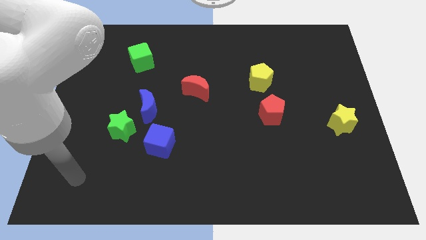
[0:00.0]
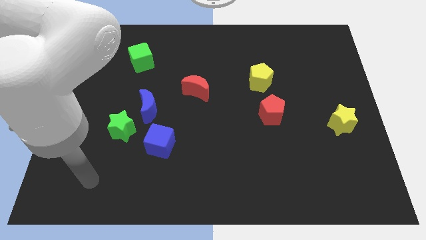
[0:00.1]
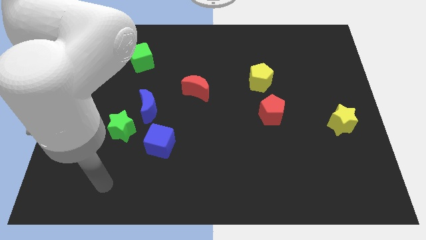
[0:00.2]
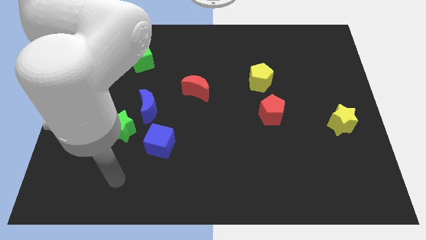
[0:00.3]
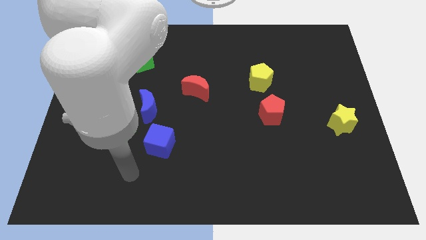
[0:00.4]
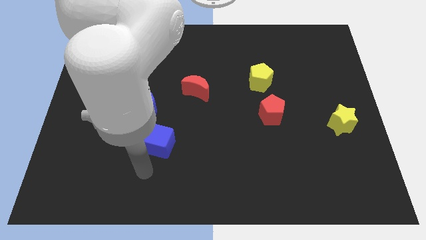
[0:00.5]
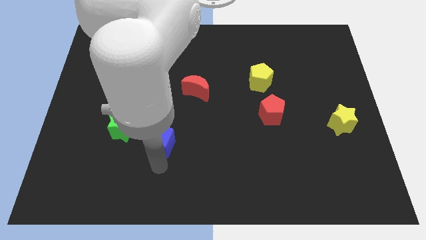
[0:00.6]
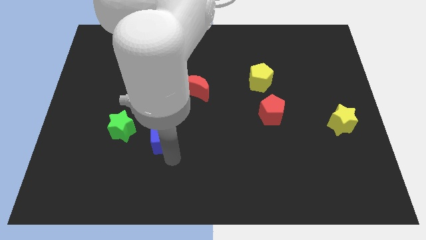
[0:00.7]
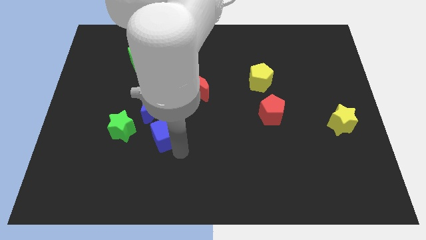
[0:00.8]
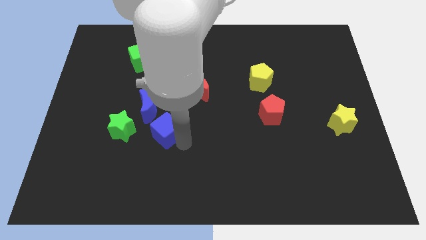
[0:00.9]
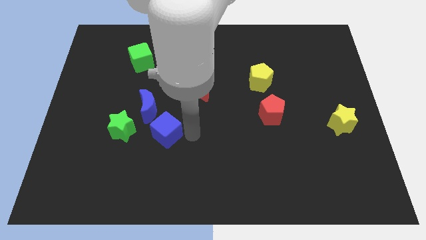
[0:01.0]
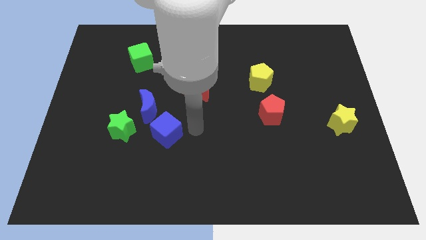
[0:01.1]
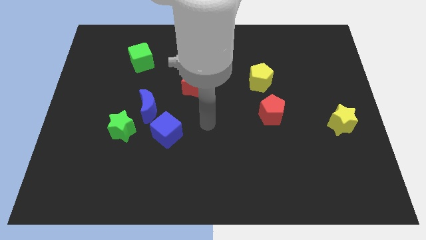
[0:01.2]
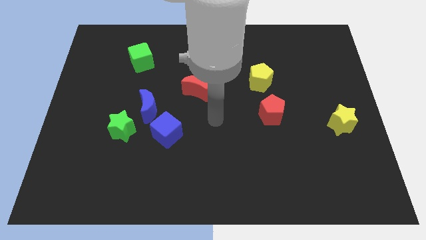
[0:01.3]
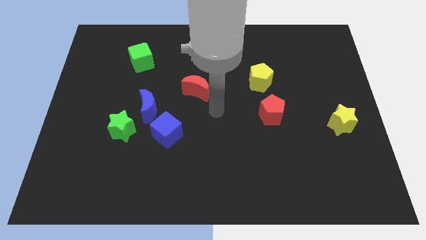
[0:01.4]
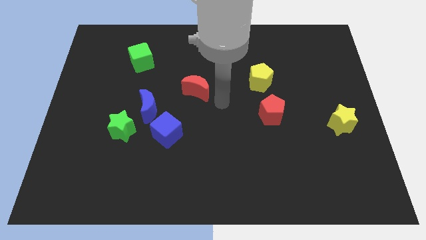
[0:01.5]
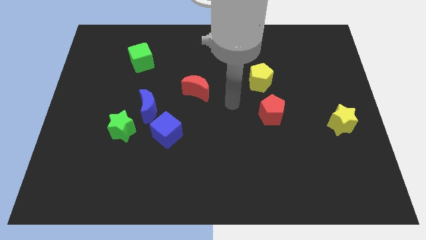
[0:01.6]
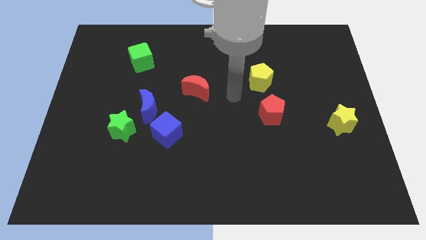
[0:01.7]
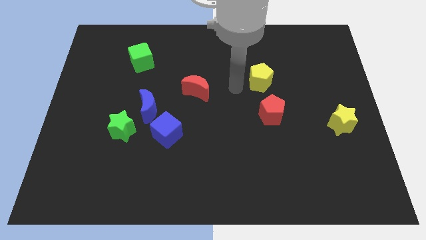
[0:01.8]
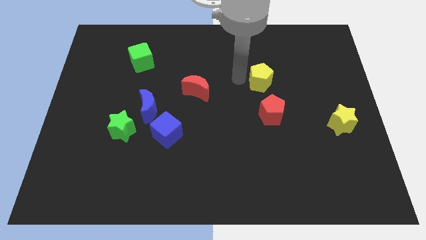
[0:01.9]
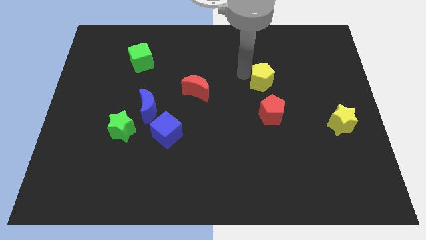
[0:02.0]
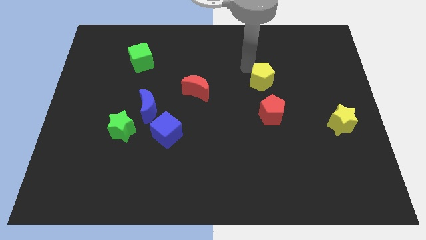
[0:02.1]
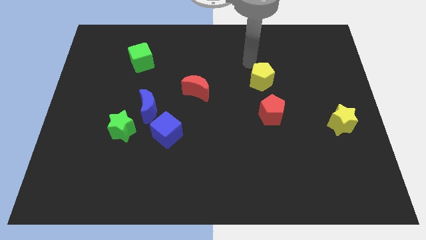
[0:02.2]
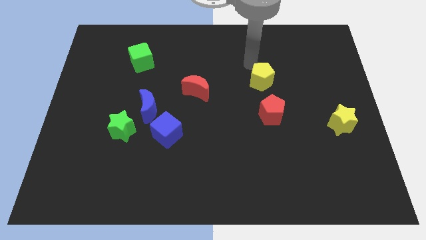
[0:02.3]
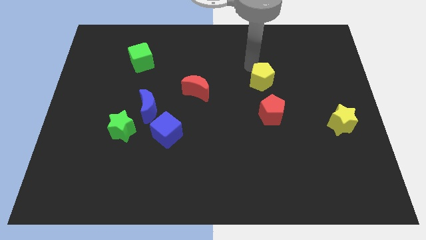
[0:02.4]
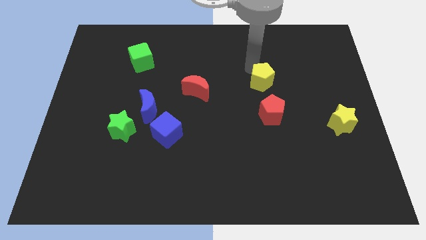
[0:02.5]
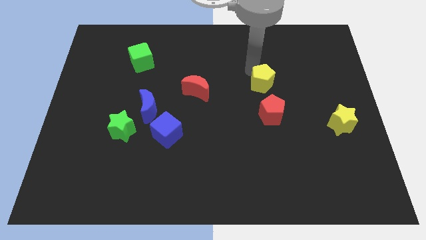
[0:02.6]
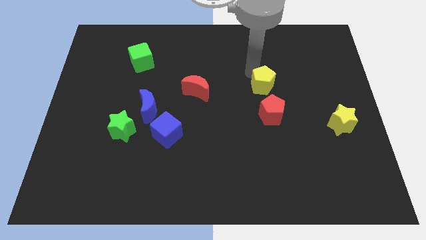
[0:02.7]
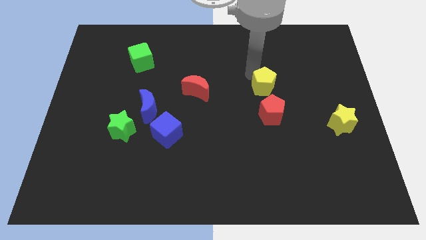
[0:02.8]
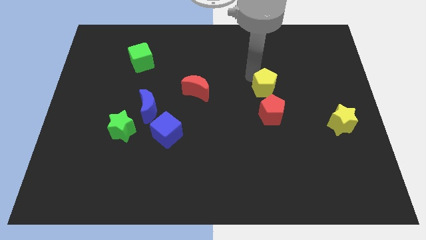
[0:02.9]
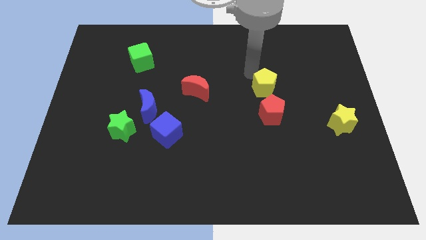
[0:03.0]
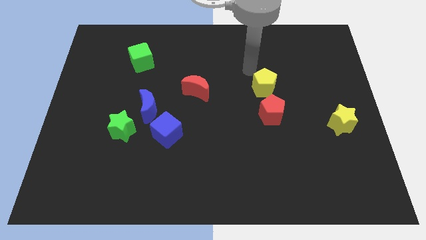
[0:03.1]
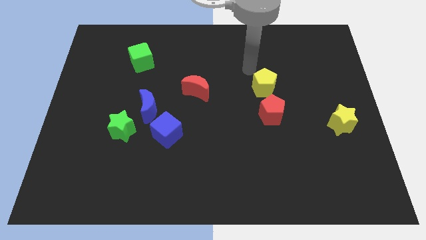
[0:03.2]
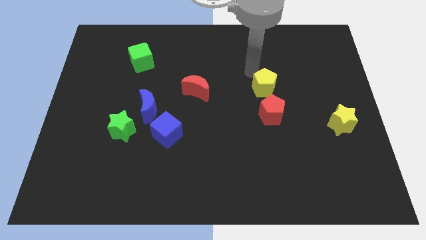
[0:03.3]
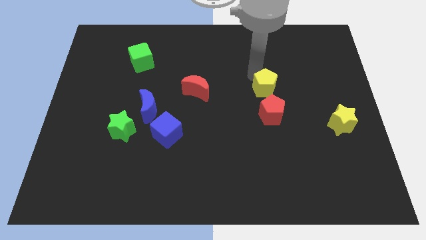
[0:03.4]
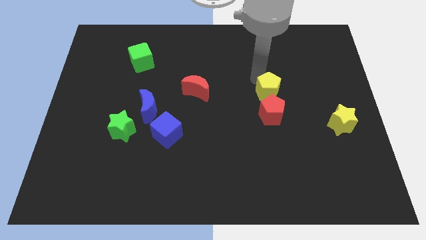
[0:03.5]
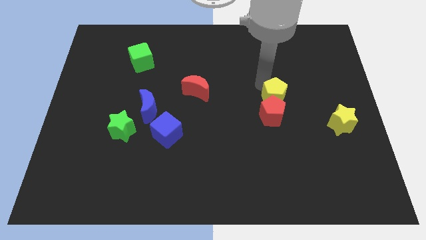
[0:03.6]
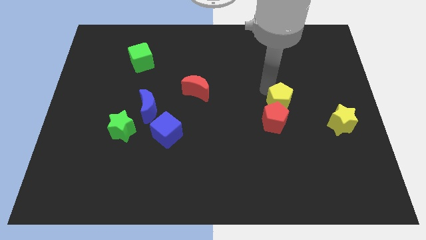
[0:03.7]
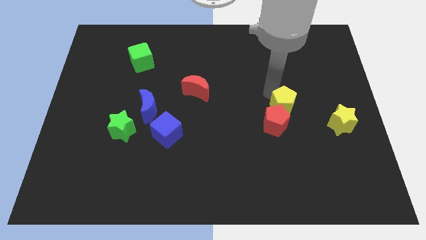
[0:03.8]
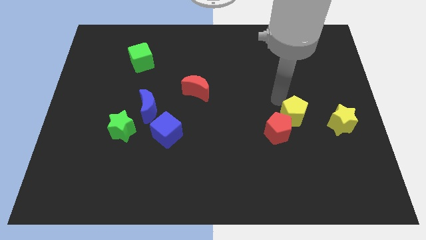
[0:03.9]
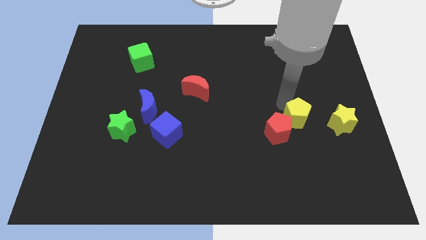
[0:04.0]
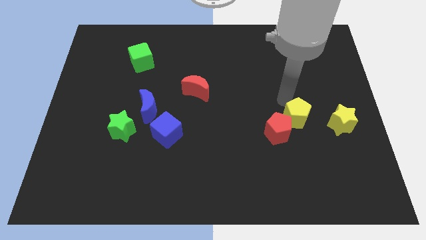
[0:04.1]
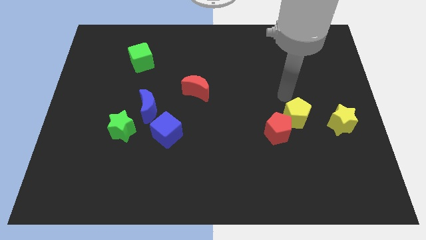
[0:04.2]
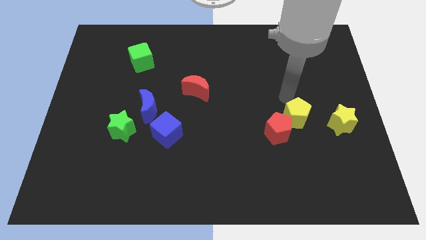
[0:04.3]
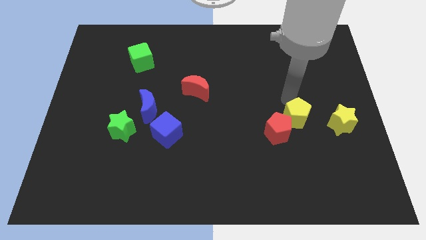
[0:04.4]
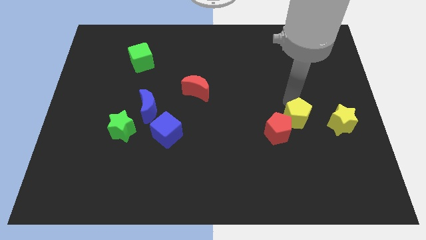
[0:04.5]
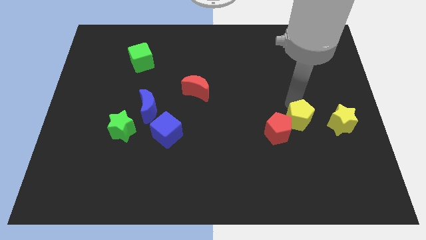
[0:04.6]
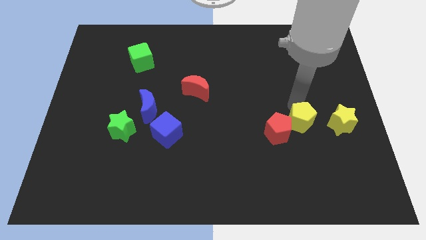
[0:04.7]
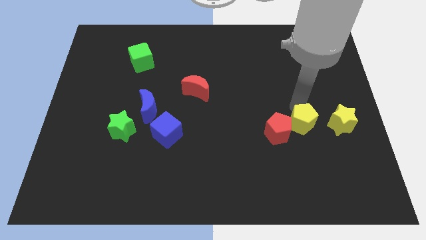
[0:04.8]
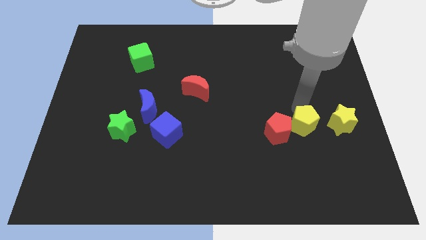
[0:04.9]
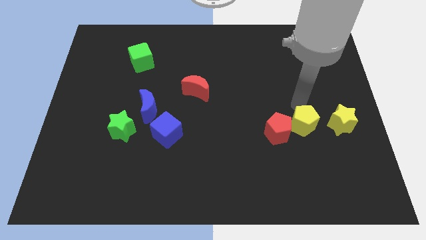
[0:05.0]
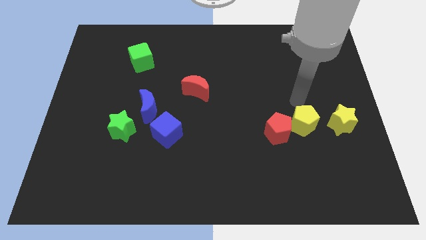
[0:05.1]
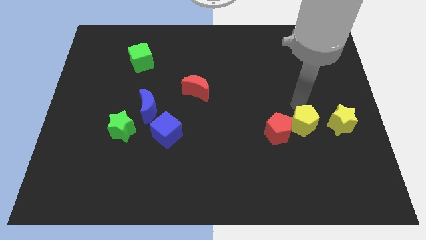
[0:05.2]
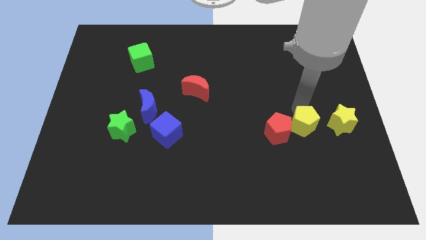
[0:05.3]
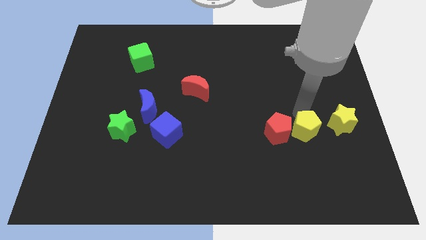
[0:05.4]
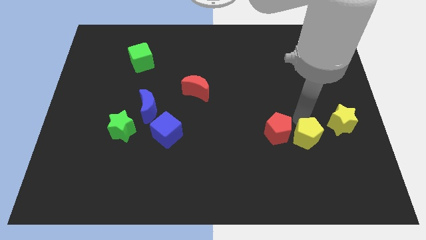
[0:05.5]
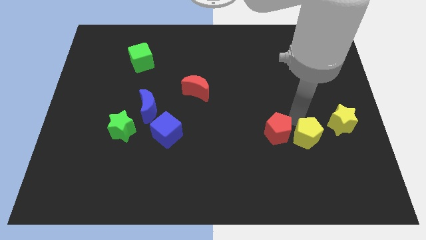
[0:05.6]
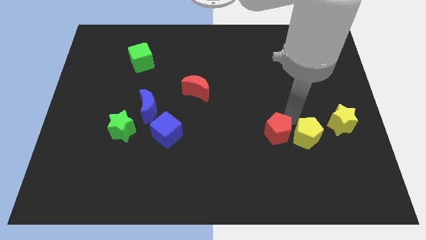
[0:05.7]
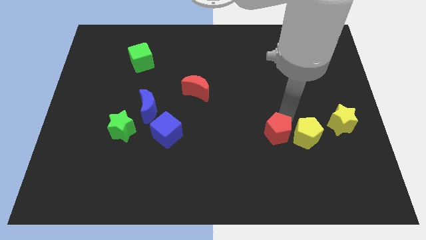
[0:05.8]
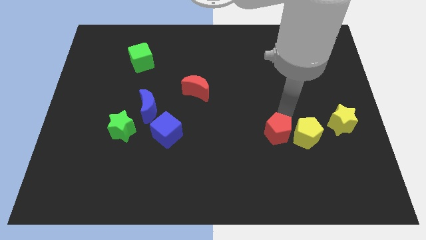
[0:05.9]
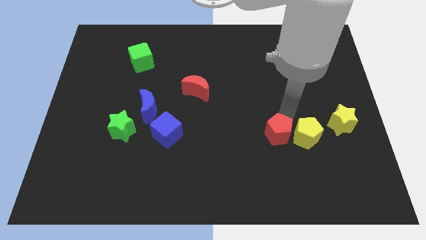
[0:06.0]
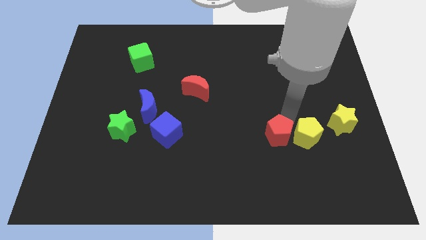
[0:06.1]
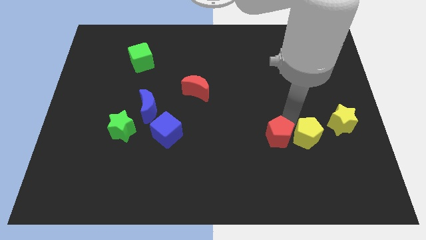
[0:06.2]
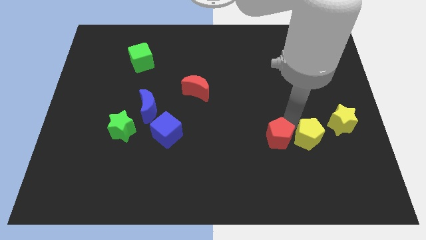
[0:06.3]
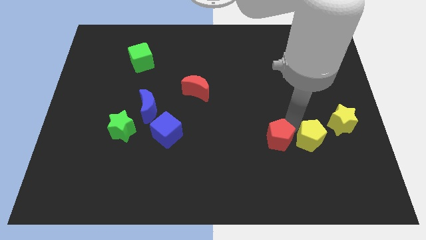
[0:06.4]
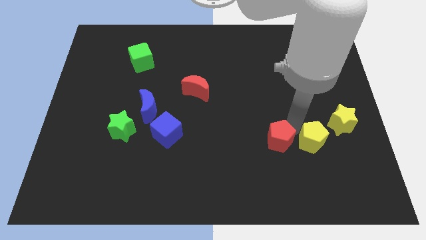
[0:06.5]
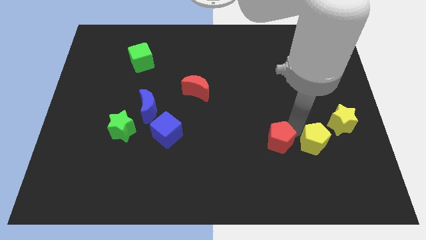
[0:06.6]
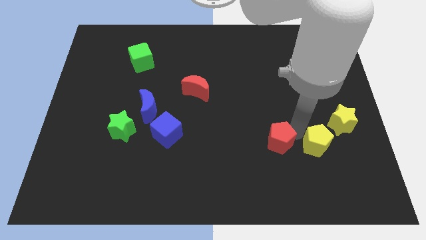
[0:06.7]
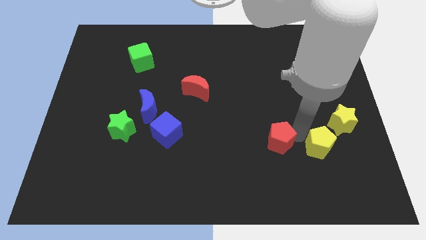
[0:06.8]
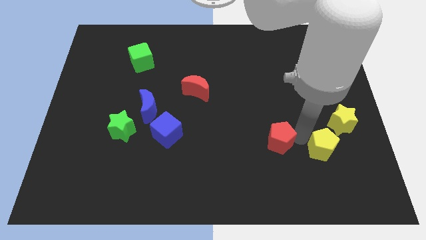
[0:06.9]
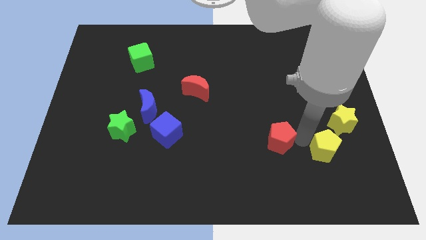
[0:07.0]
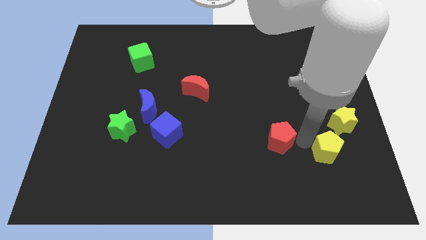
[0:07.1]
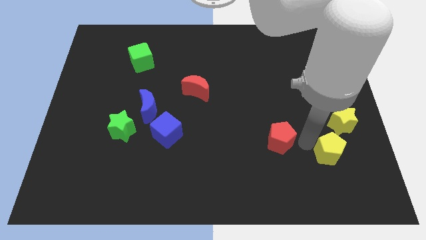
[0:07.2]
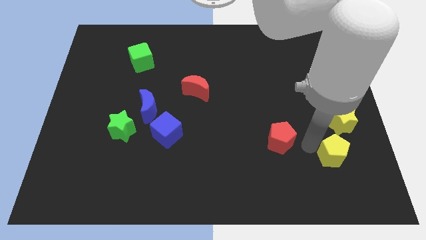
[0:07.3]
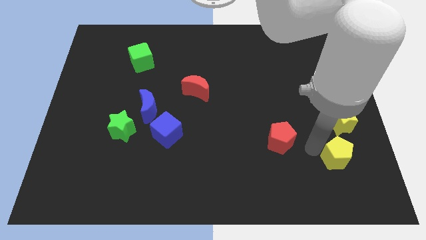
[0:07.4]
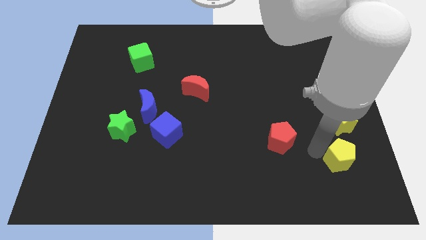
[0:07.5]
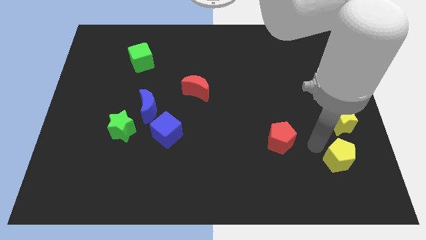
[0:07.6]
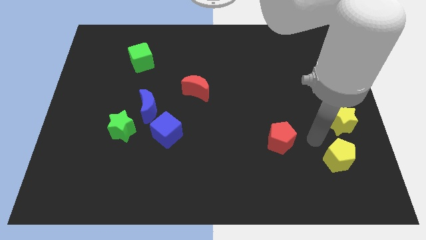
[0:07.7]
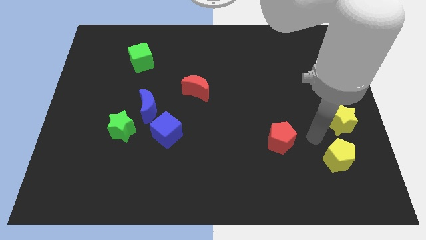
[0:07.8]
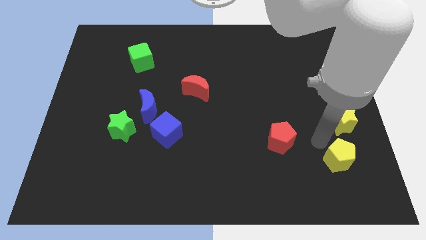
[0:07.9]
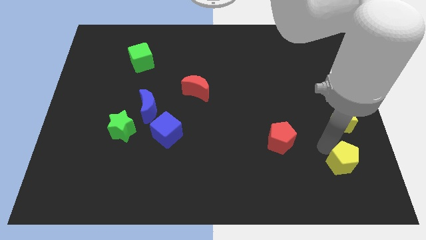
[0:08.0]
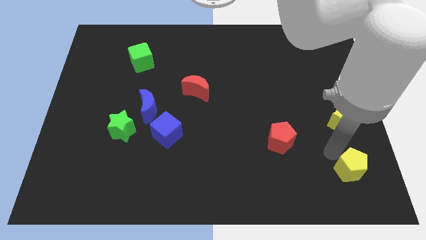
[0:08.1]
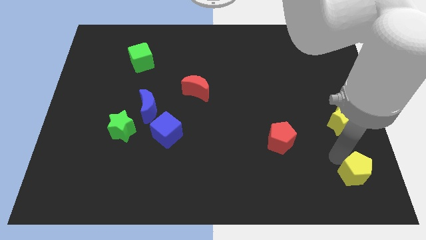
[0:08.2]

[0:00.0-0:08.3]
move the yellow pentagon to the bottom right of the board
